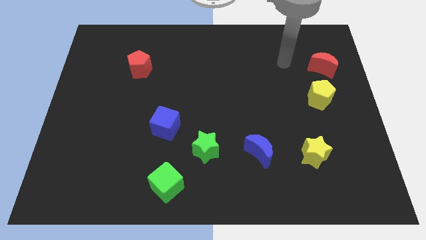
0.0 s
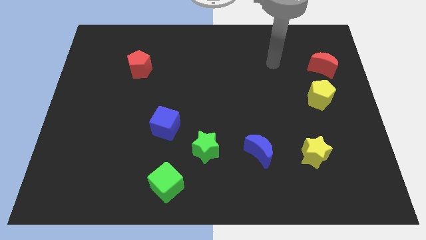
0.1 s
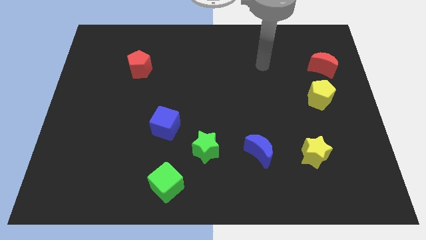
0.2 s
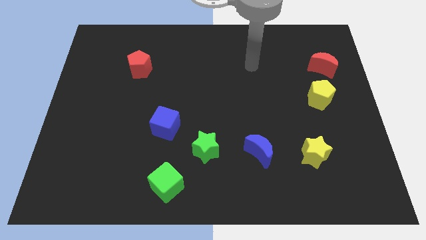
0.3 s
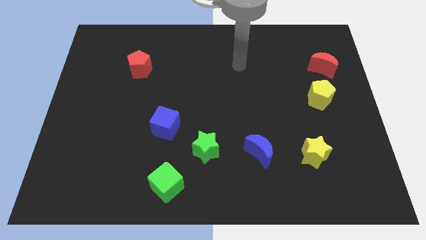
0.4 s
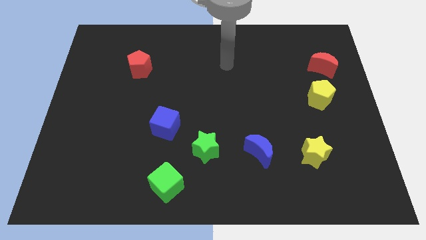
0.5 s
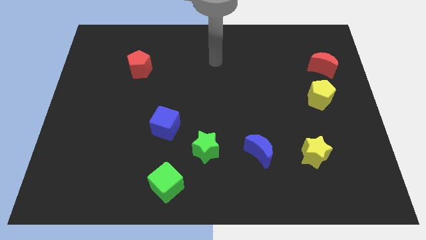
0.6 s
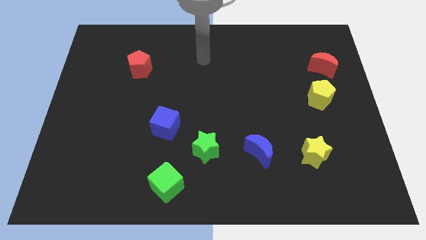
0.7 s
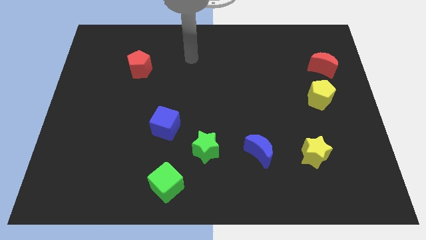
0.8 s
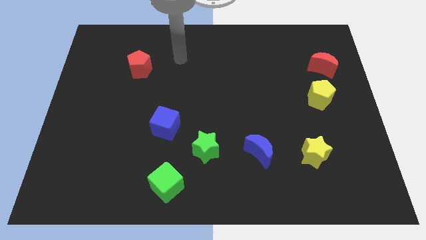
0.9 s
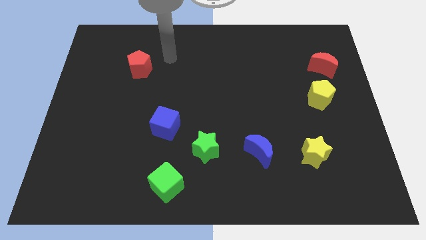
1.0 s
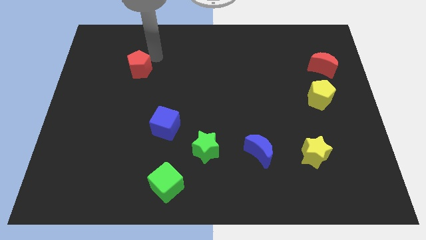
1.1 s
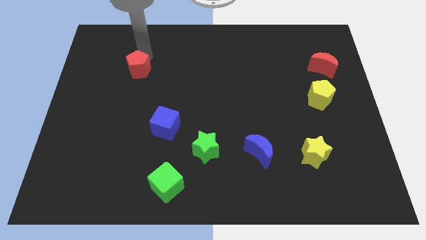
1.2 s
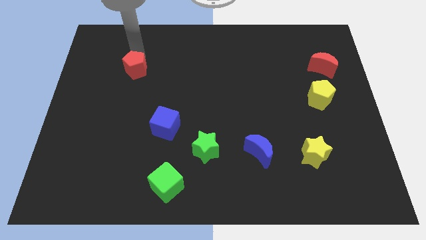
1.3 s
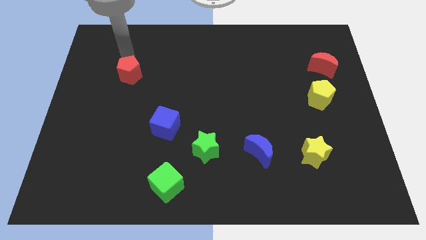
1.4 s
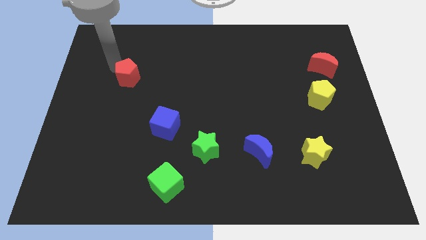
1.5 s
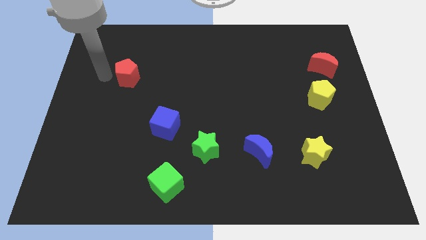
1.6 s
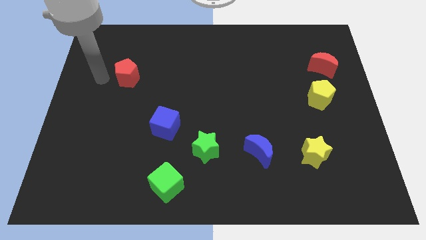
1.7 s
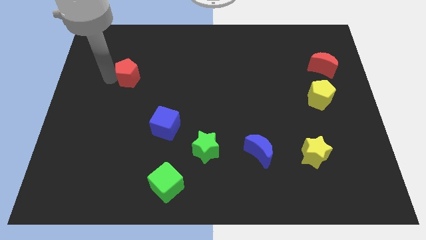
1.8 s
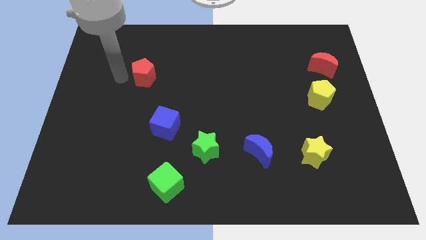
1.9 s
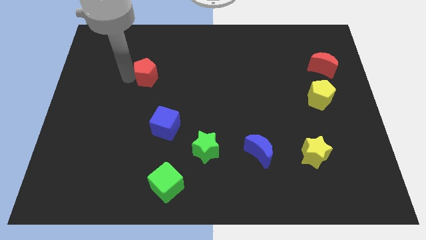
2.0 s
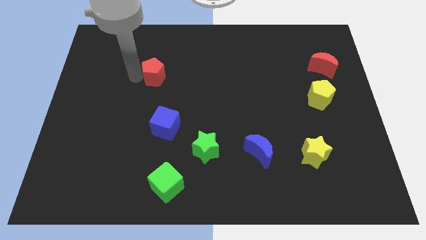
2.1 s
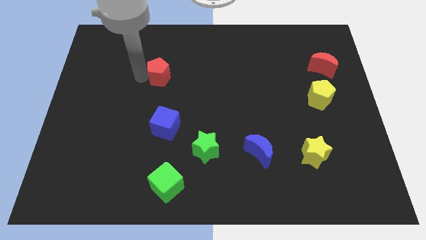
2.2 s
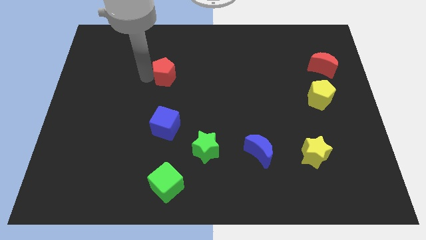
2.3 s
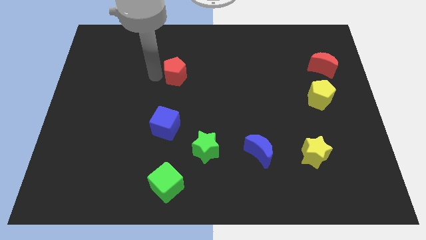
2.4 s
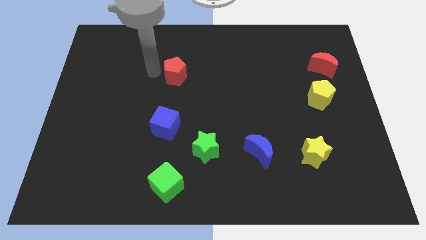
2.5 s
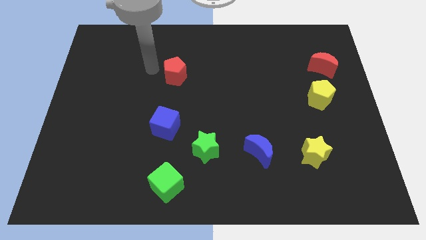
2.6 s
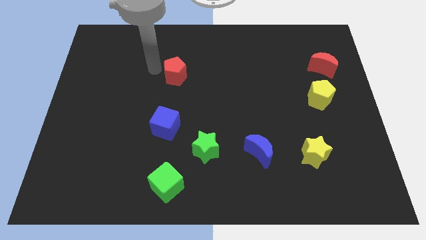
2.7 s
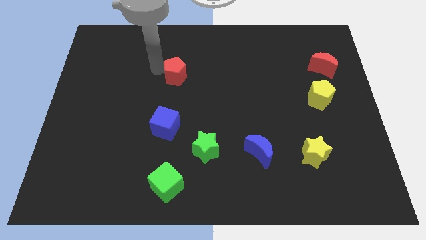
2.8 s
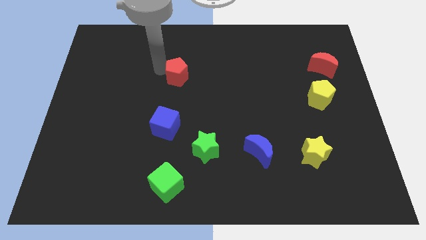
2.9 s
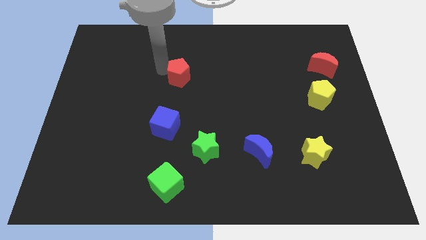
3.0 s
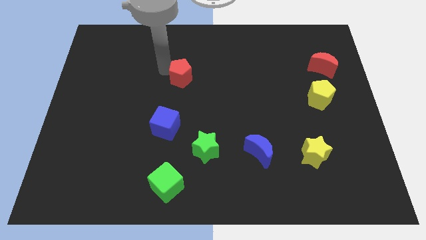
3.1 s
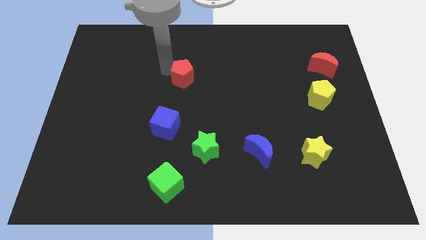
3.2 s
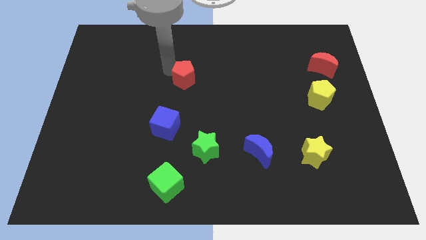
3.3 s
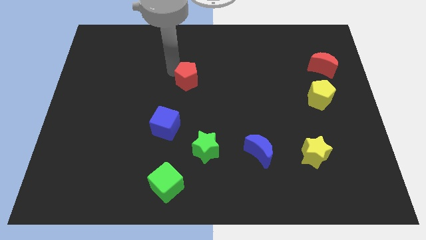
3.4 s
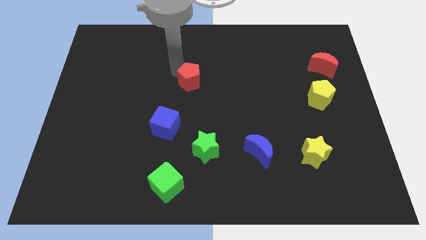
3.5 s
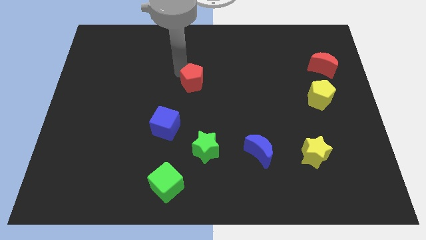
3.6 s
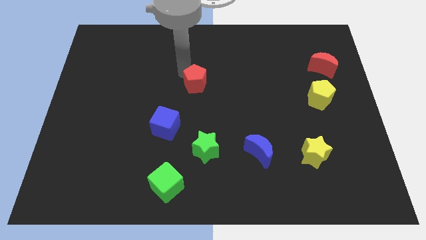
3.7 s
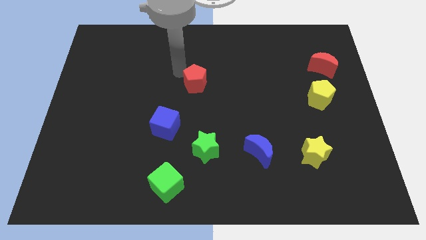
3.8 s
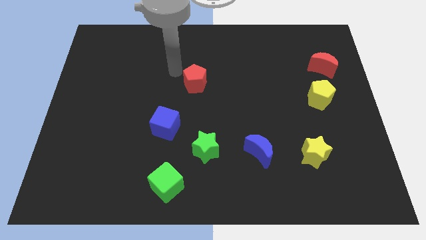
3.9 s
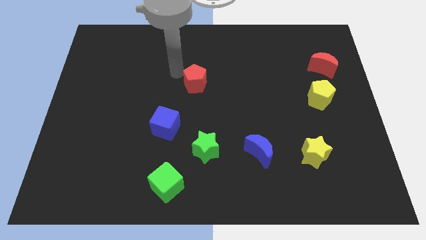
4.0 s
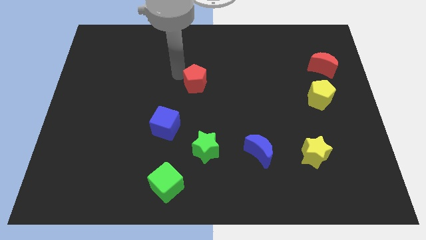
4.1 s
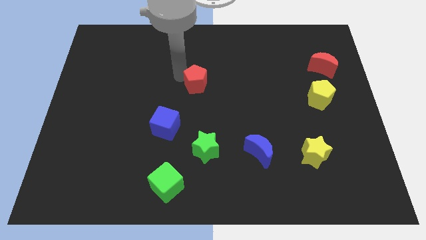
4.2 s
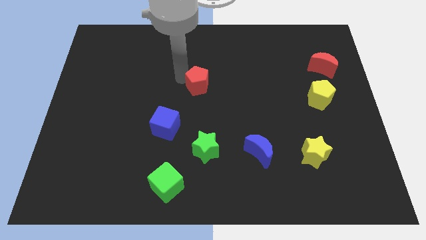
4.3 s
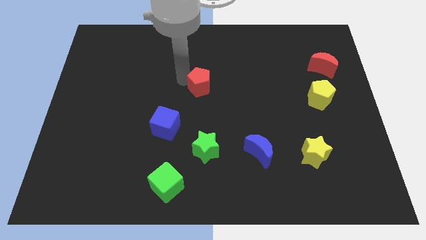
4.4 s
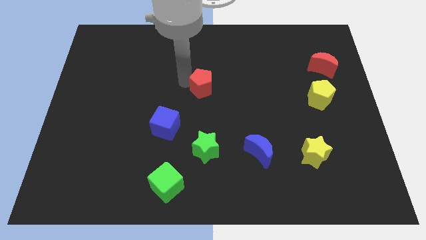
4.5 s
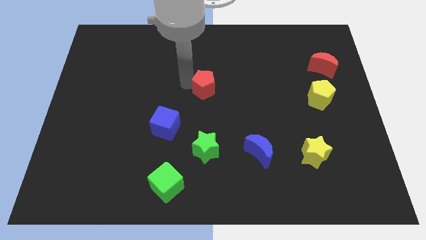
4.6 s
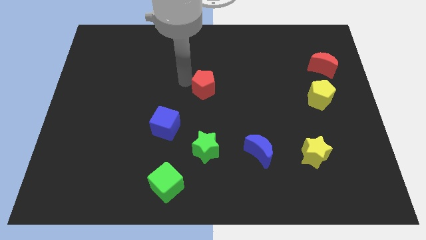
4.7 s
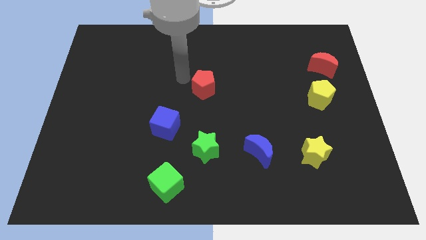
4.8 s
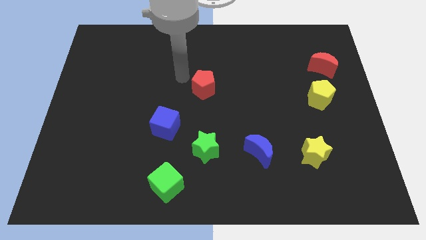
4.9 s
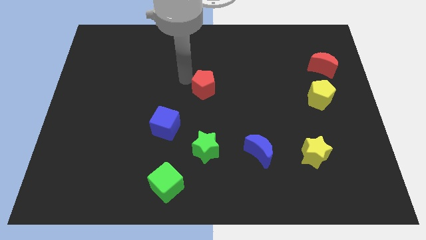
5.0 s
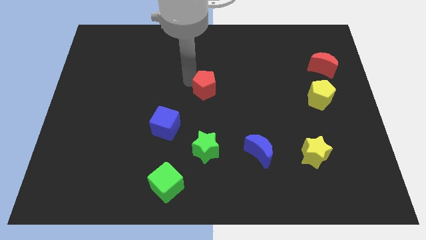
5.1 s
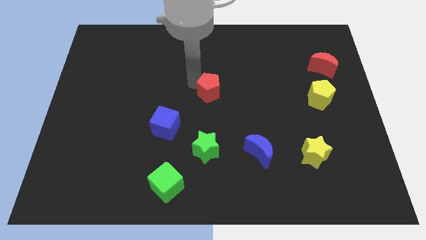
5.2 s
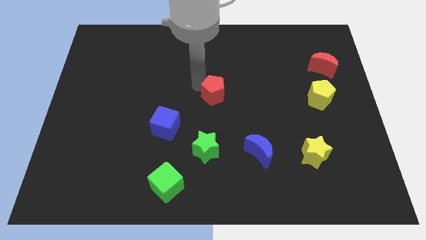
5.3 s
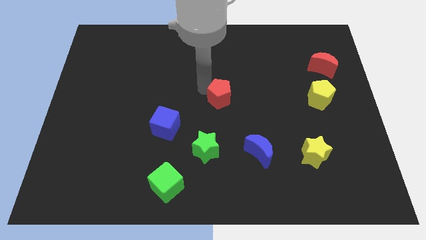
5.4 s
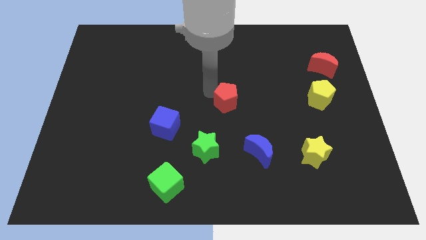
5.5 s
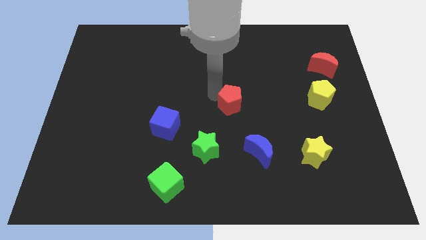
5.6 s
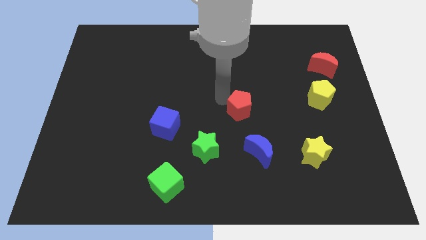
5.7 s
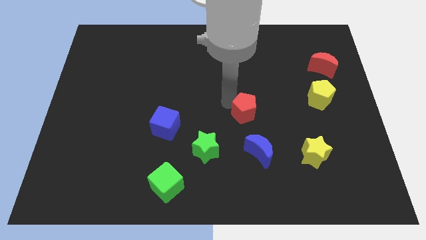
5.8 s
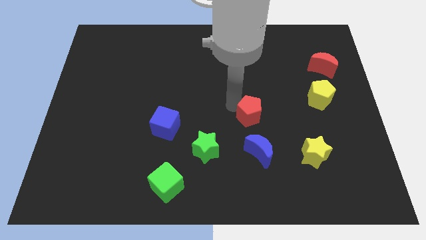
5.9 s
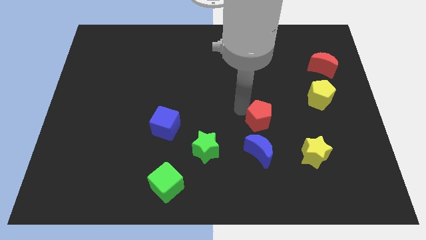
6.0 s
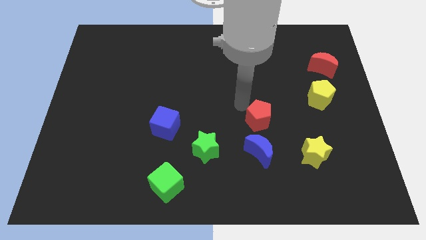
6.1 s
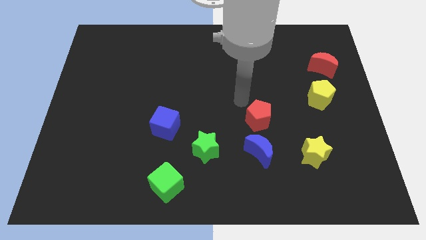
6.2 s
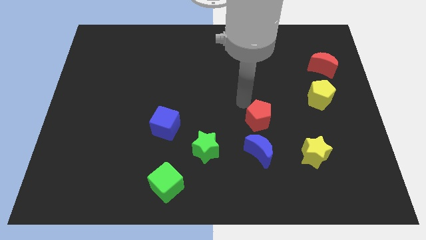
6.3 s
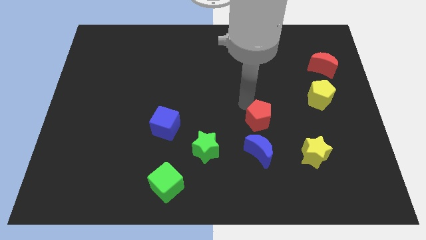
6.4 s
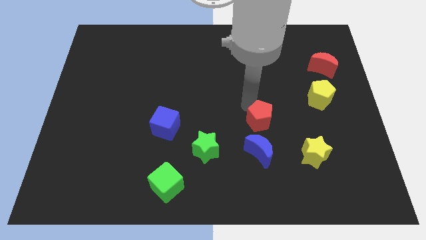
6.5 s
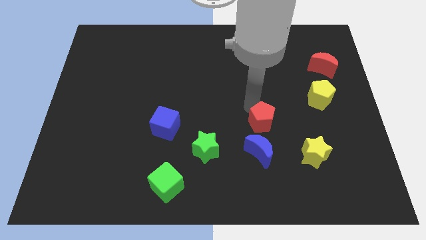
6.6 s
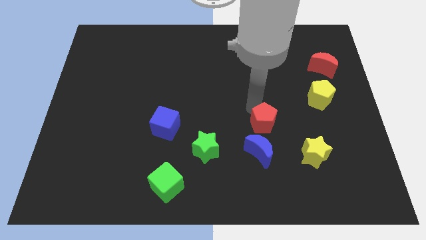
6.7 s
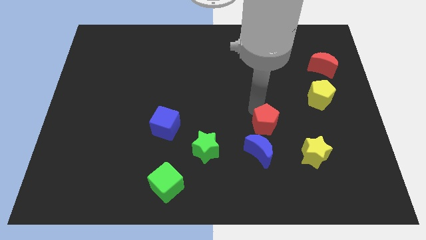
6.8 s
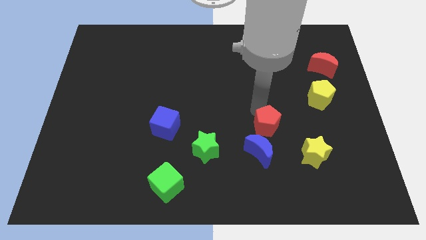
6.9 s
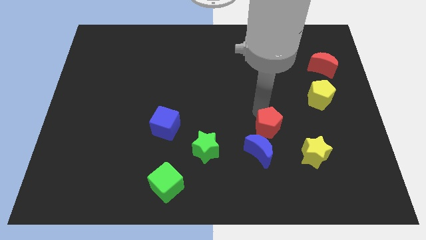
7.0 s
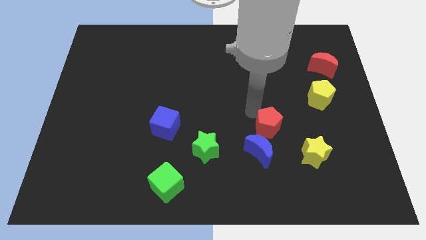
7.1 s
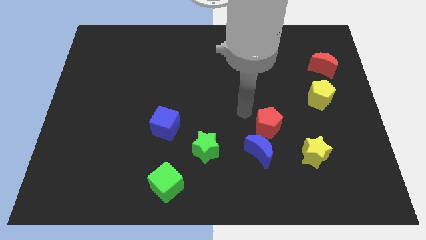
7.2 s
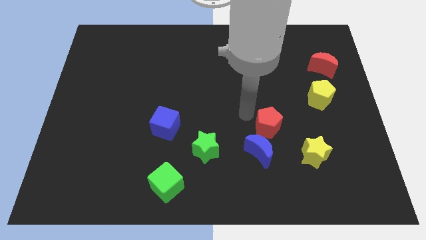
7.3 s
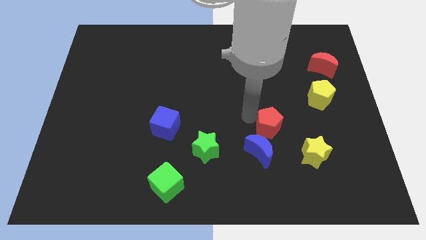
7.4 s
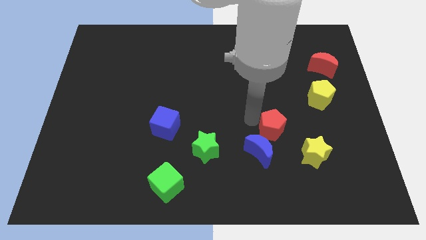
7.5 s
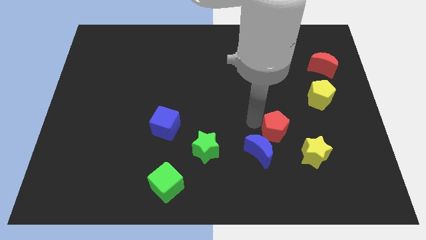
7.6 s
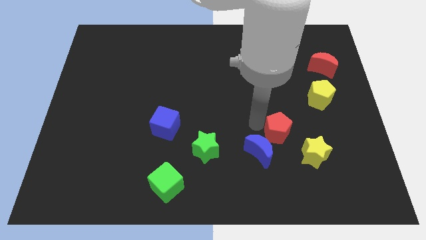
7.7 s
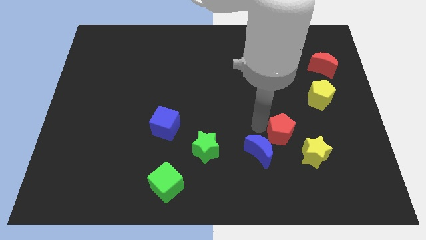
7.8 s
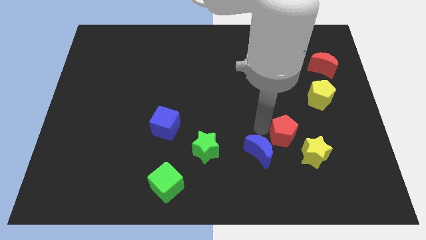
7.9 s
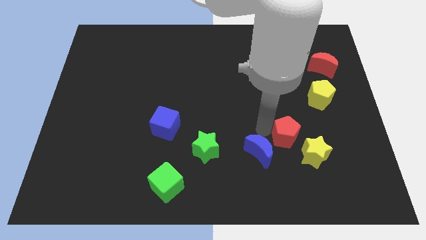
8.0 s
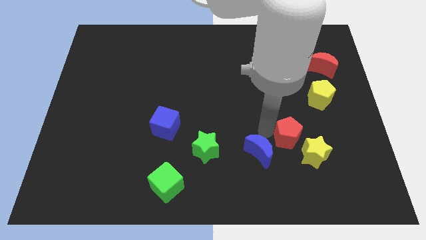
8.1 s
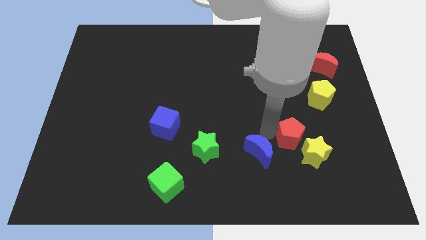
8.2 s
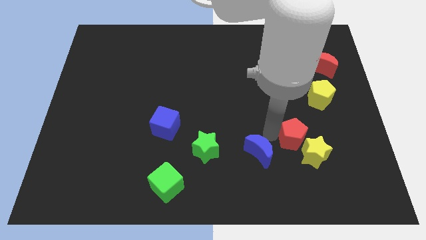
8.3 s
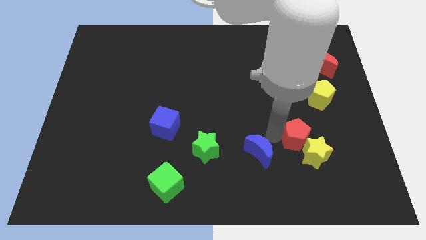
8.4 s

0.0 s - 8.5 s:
move the red pentagon to the yellow star
